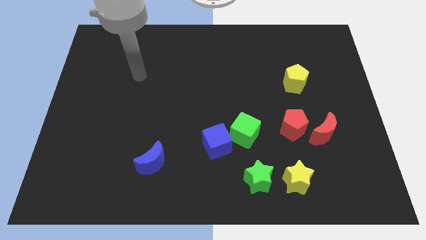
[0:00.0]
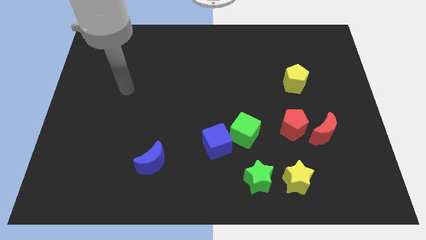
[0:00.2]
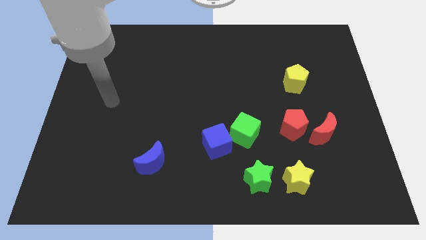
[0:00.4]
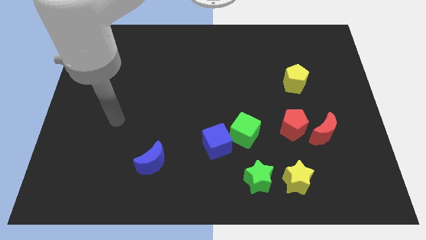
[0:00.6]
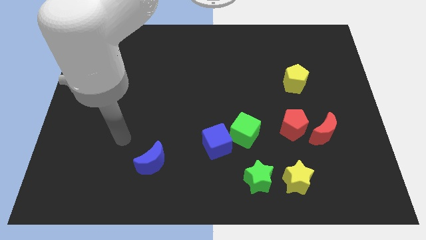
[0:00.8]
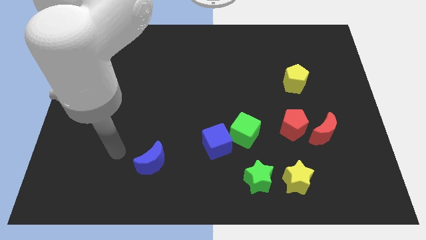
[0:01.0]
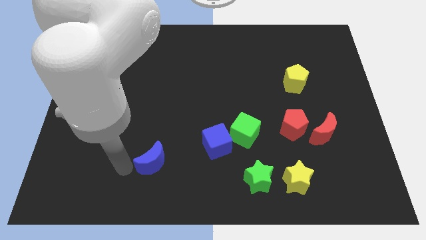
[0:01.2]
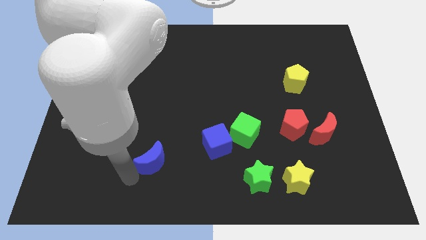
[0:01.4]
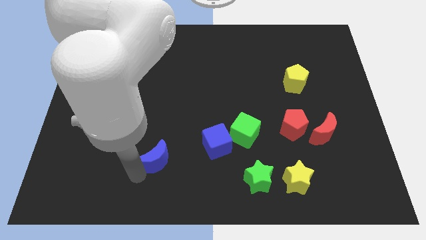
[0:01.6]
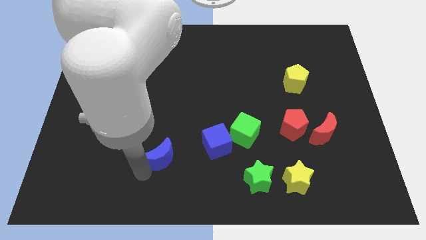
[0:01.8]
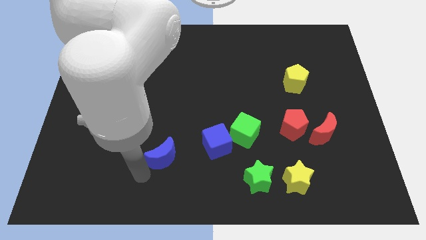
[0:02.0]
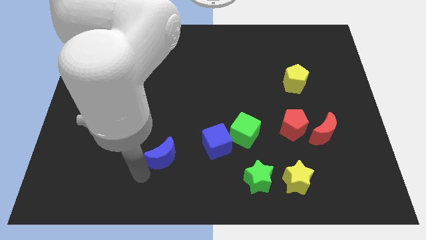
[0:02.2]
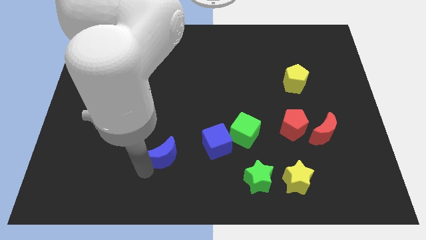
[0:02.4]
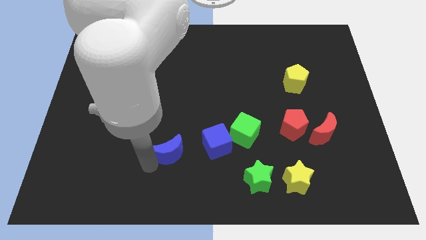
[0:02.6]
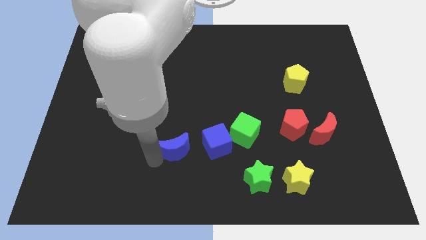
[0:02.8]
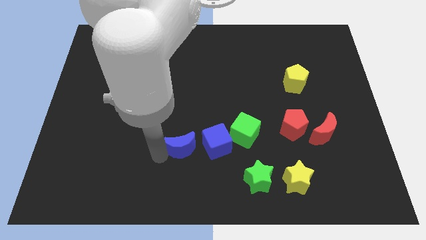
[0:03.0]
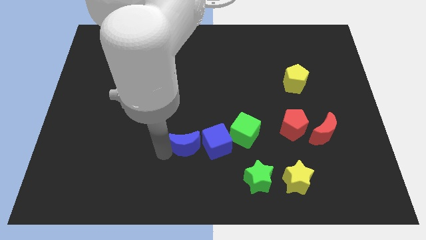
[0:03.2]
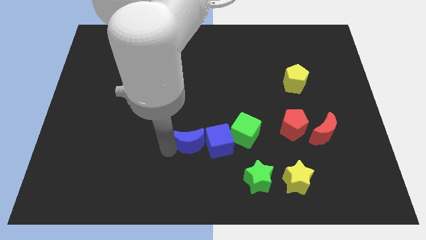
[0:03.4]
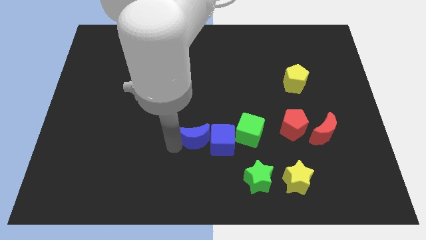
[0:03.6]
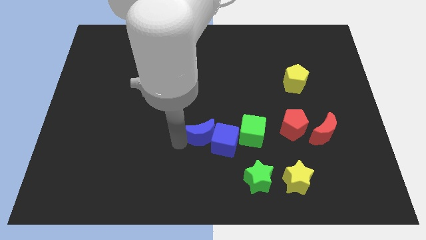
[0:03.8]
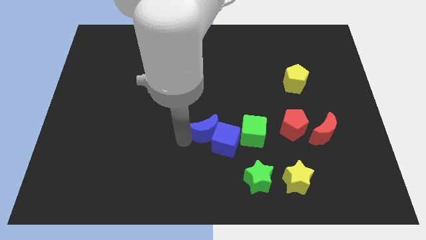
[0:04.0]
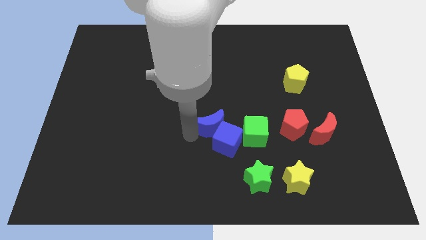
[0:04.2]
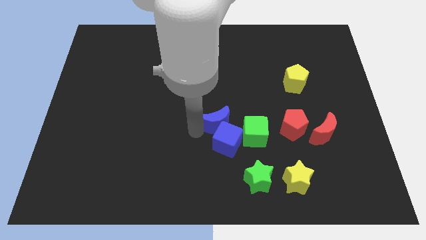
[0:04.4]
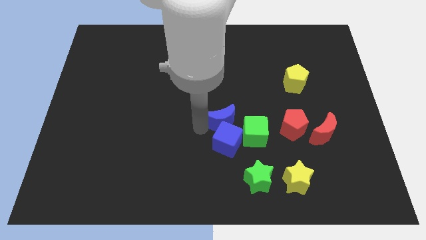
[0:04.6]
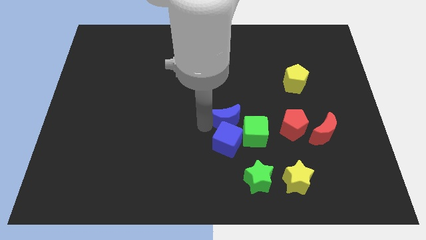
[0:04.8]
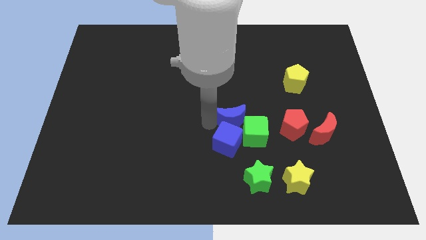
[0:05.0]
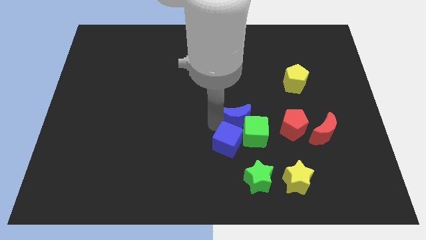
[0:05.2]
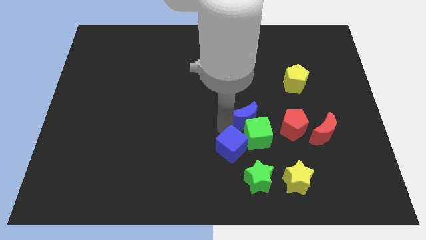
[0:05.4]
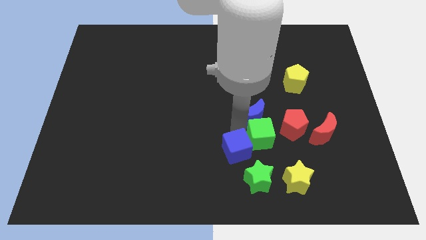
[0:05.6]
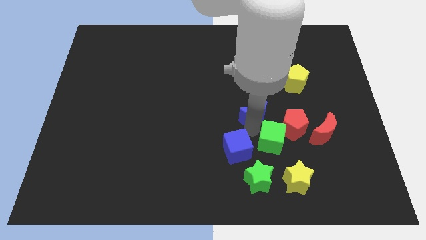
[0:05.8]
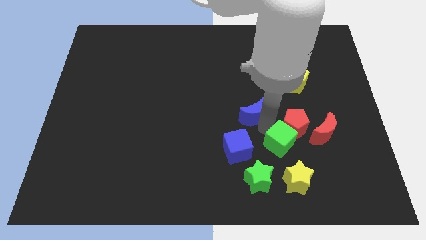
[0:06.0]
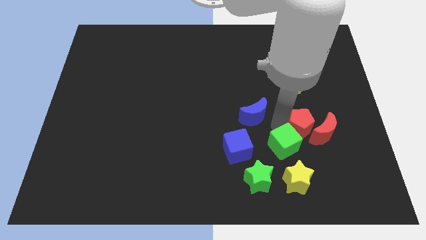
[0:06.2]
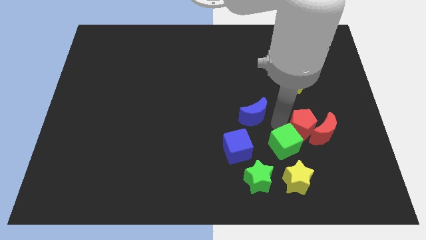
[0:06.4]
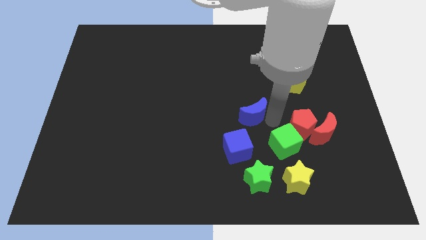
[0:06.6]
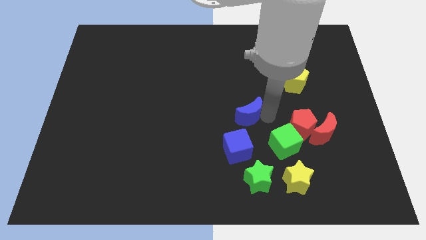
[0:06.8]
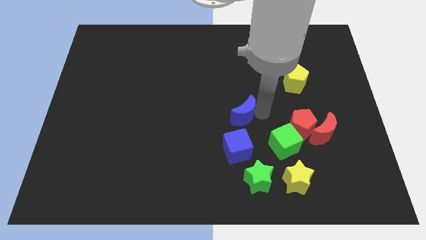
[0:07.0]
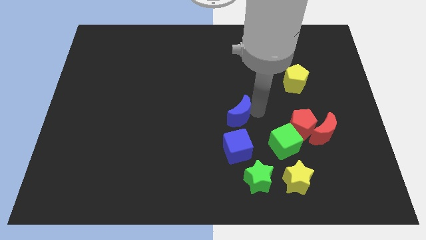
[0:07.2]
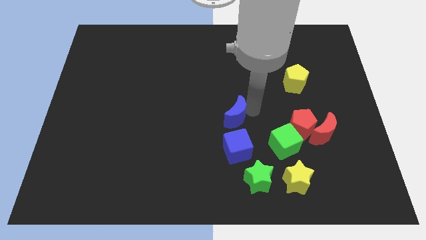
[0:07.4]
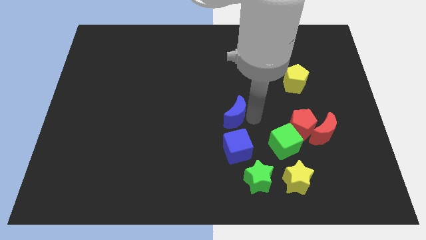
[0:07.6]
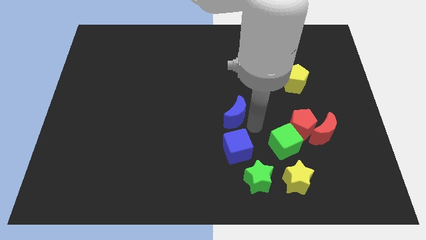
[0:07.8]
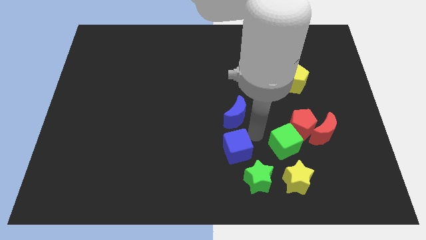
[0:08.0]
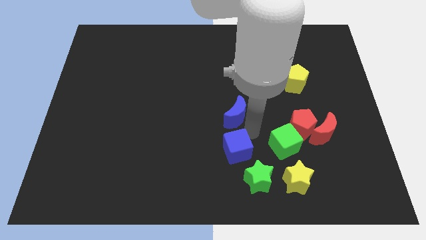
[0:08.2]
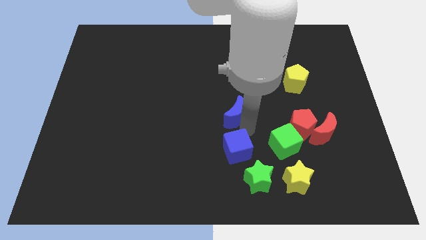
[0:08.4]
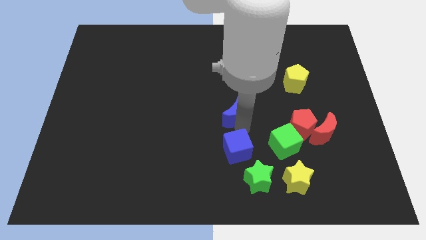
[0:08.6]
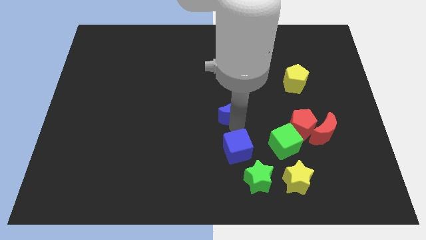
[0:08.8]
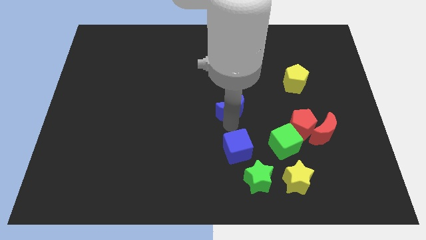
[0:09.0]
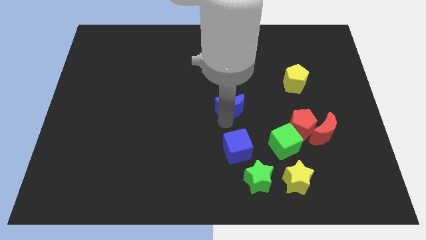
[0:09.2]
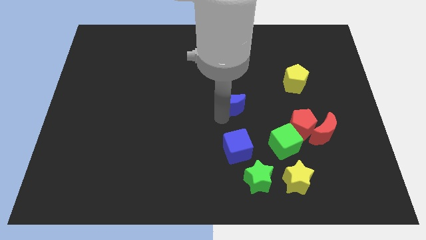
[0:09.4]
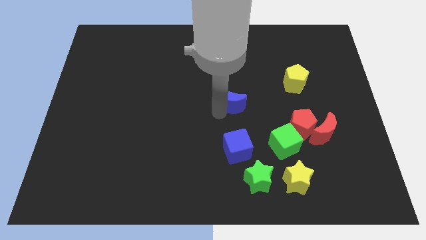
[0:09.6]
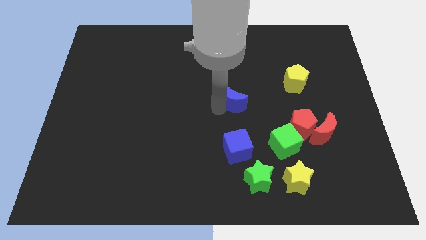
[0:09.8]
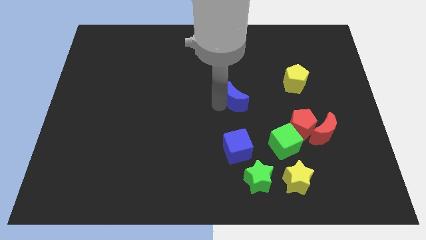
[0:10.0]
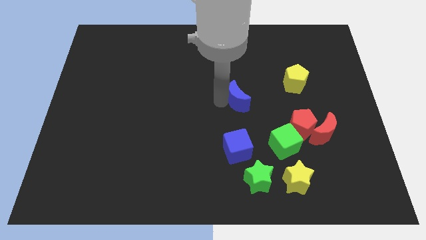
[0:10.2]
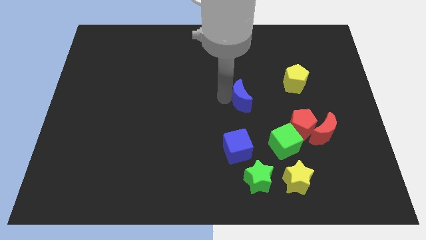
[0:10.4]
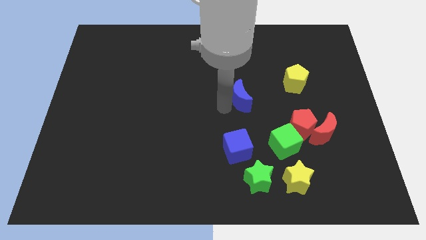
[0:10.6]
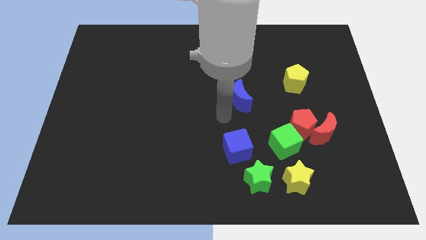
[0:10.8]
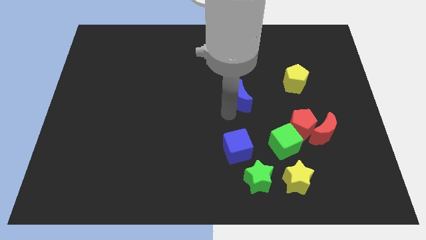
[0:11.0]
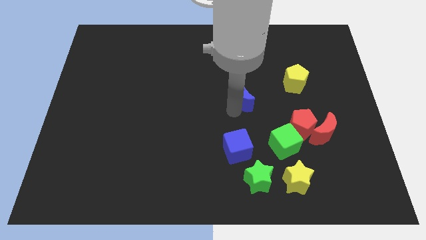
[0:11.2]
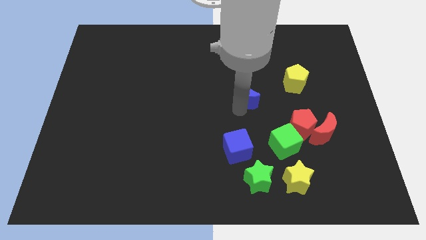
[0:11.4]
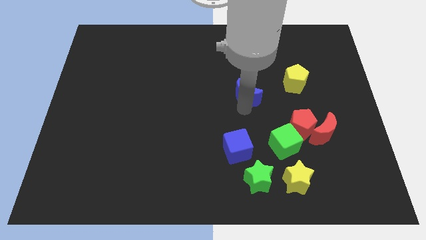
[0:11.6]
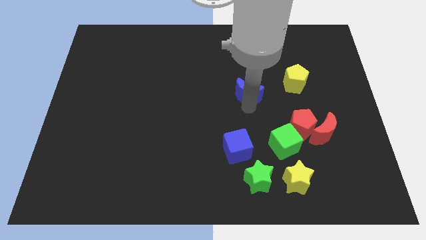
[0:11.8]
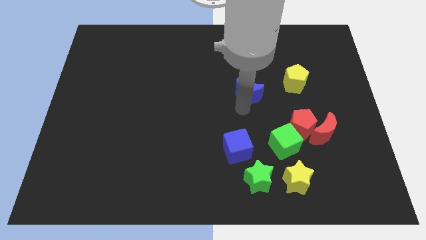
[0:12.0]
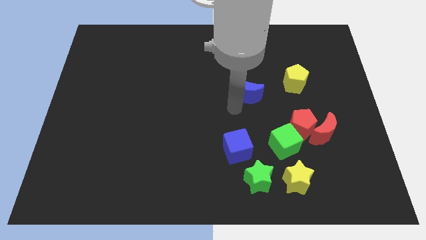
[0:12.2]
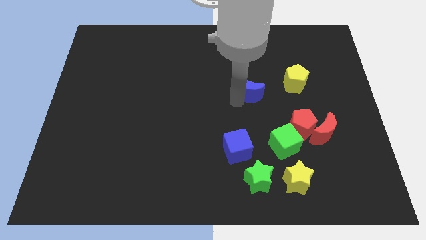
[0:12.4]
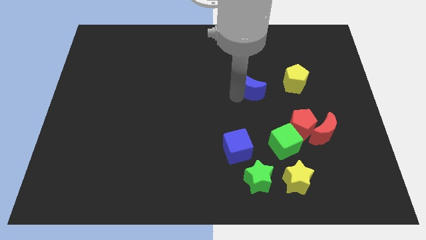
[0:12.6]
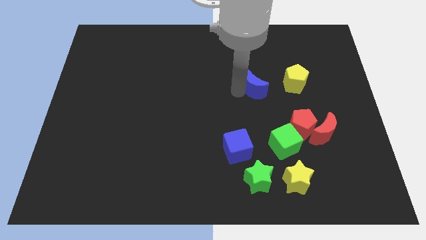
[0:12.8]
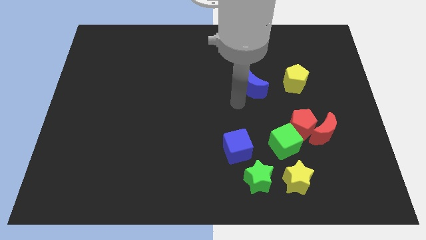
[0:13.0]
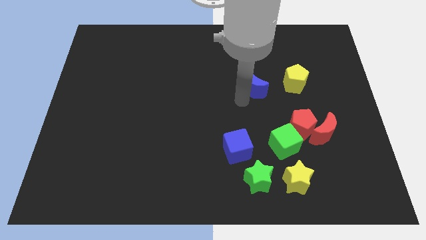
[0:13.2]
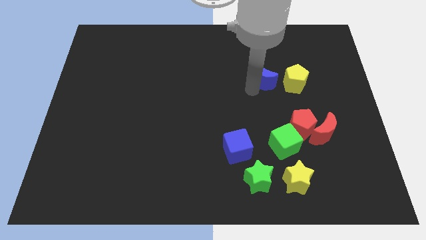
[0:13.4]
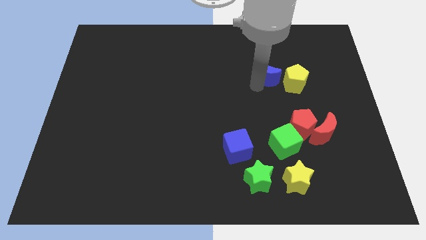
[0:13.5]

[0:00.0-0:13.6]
move the blue moon diagonally up and to the left of the yellow pentagon

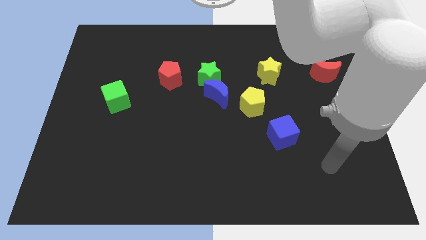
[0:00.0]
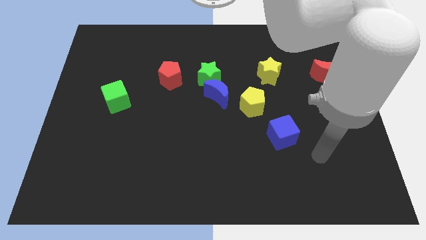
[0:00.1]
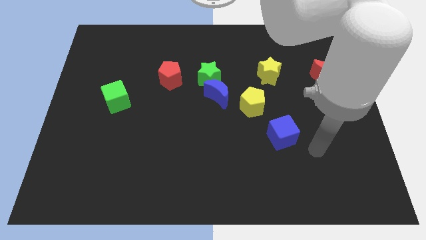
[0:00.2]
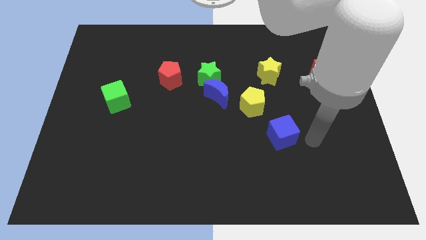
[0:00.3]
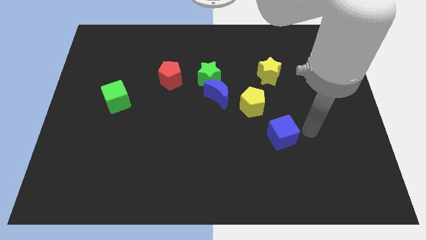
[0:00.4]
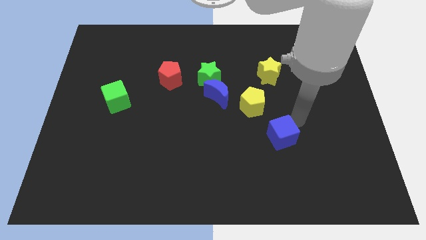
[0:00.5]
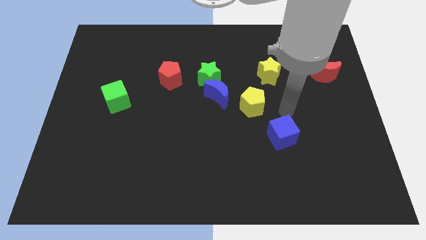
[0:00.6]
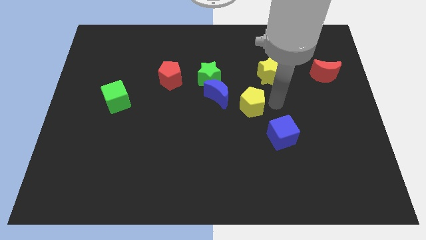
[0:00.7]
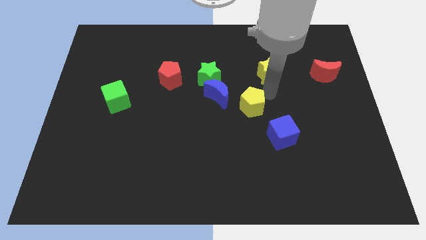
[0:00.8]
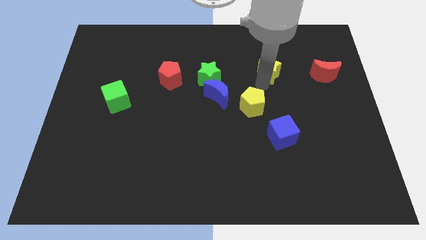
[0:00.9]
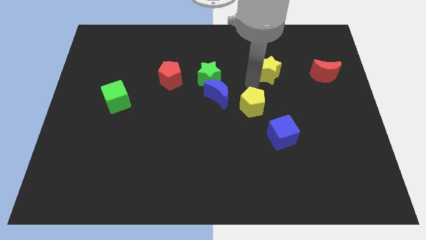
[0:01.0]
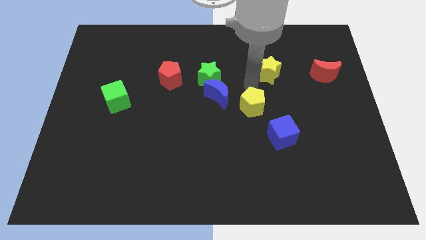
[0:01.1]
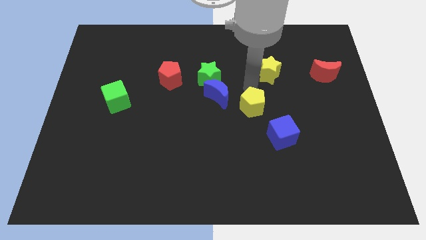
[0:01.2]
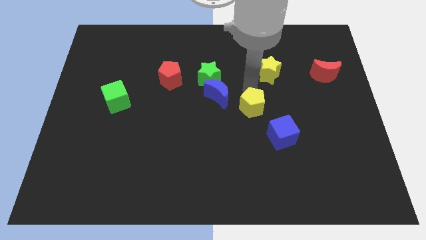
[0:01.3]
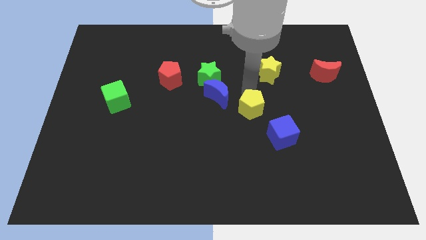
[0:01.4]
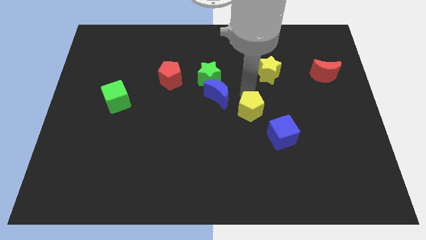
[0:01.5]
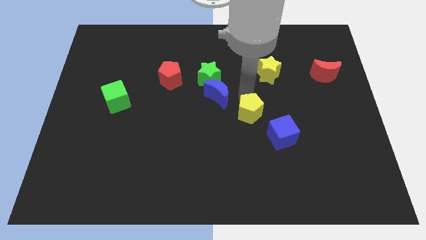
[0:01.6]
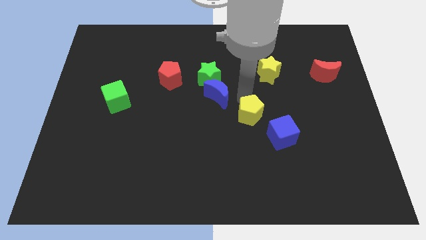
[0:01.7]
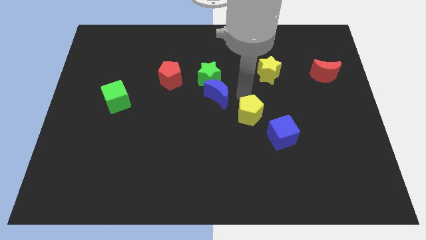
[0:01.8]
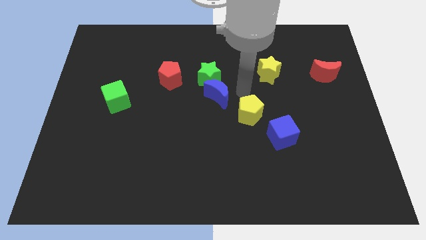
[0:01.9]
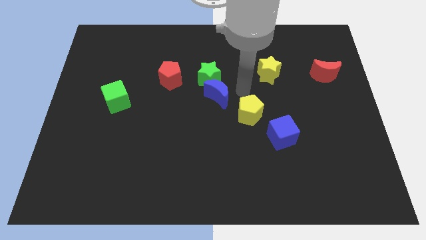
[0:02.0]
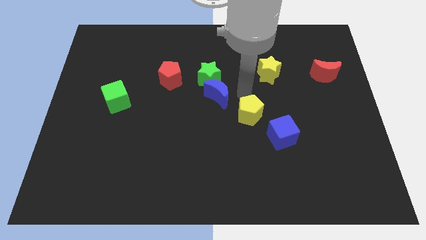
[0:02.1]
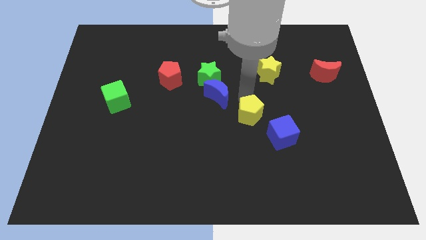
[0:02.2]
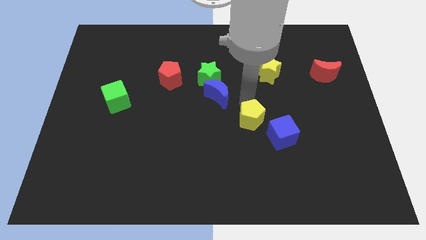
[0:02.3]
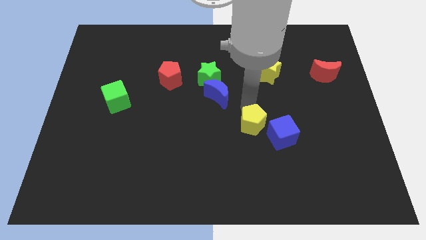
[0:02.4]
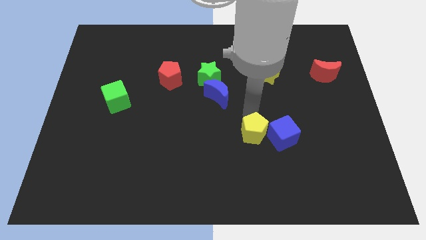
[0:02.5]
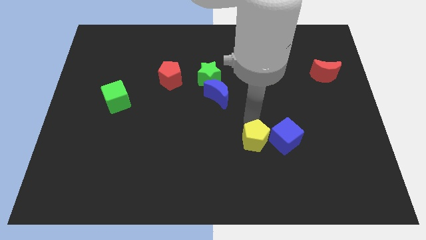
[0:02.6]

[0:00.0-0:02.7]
push the yellow pentagon diagonally down and to the left of the blue cube
